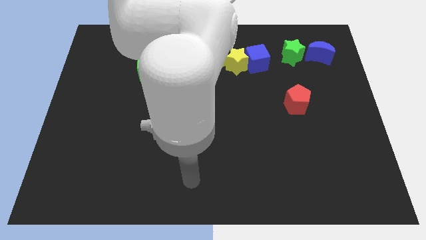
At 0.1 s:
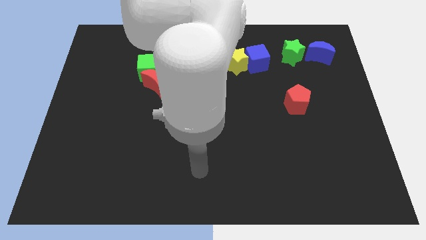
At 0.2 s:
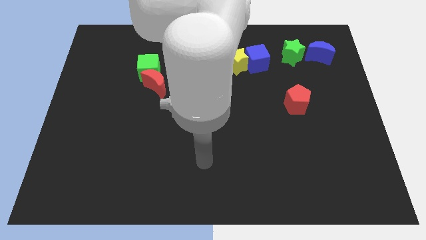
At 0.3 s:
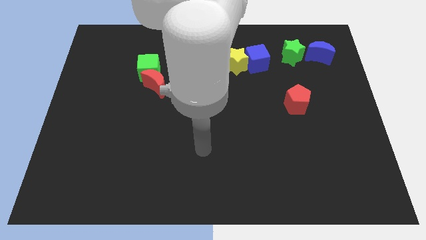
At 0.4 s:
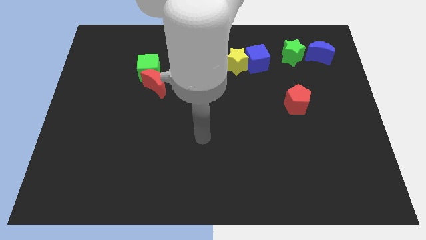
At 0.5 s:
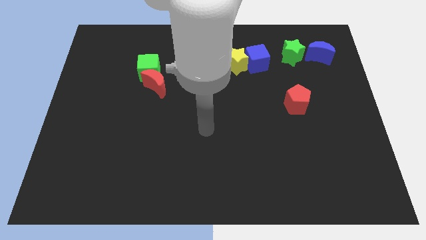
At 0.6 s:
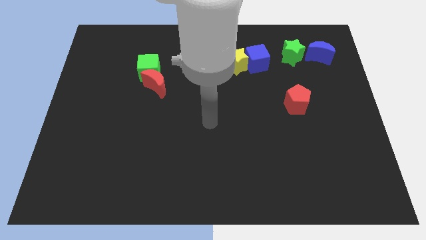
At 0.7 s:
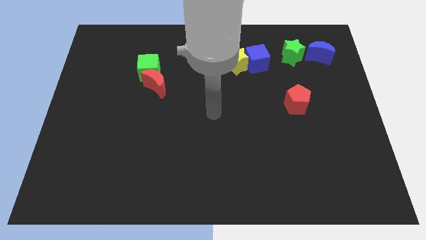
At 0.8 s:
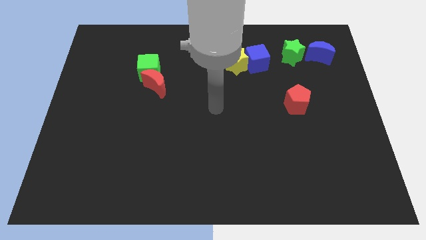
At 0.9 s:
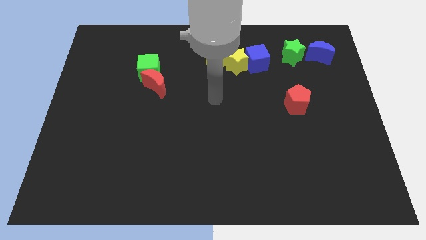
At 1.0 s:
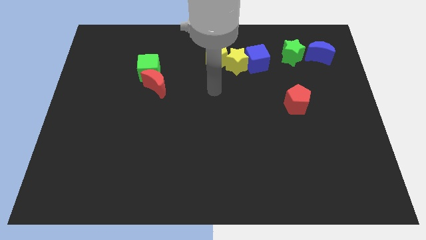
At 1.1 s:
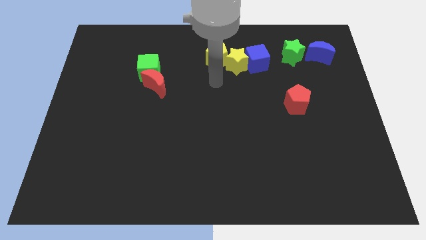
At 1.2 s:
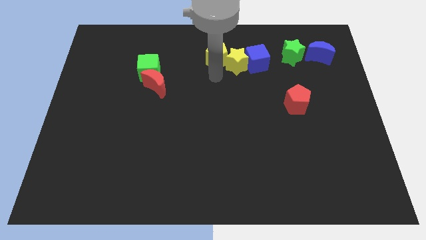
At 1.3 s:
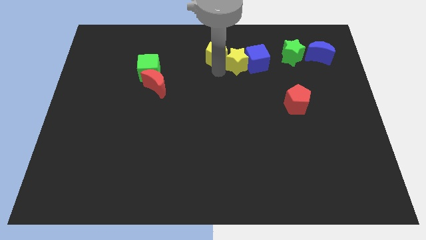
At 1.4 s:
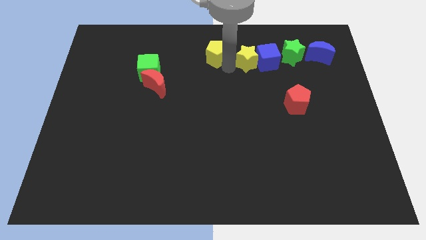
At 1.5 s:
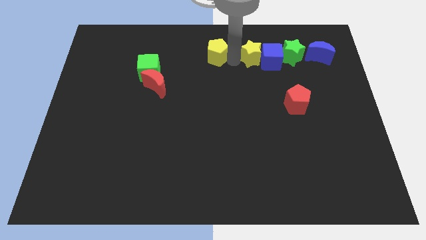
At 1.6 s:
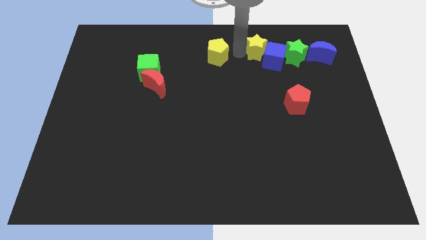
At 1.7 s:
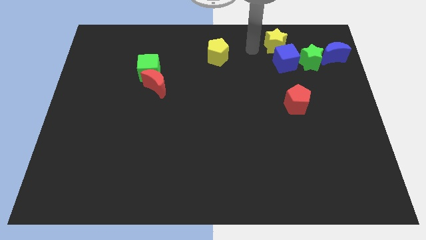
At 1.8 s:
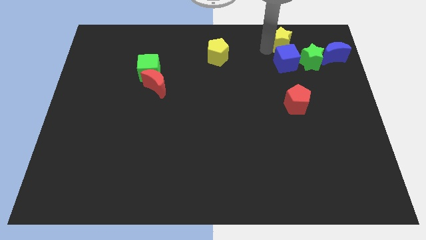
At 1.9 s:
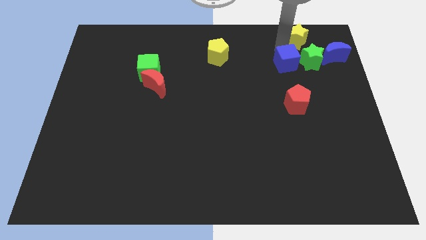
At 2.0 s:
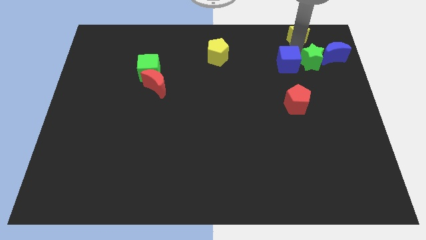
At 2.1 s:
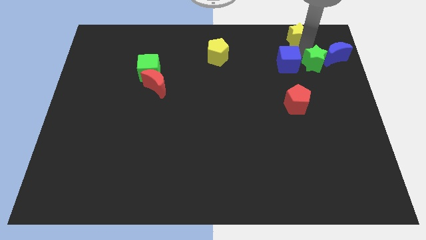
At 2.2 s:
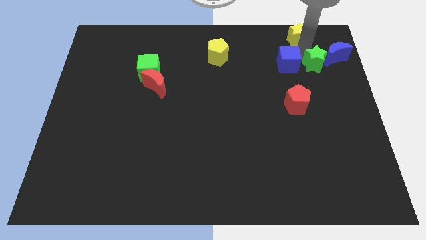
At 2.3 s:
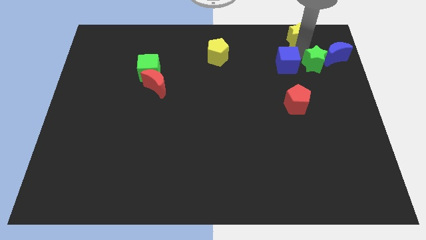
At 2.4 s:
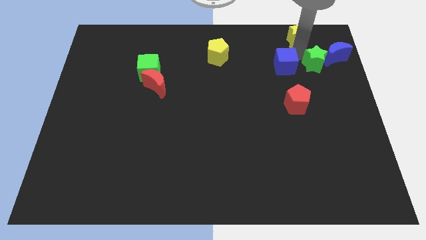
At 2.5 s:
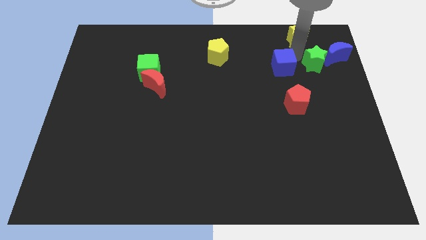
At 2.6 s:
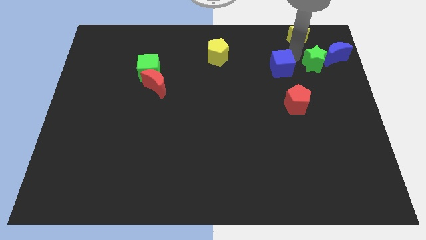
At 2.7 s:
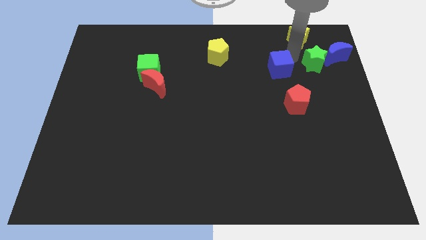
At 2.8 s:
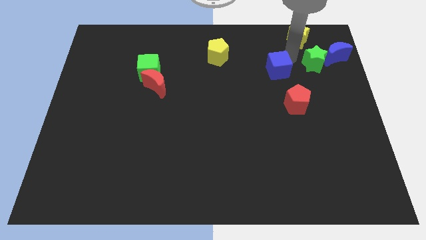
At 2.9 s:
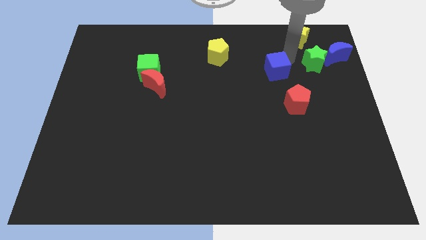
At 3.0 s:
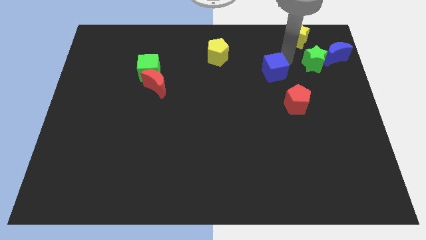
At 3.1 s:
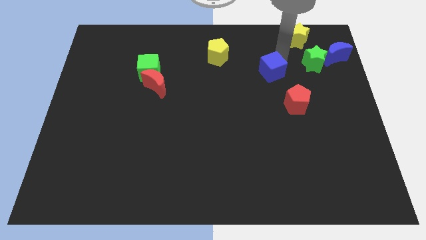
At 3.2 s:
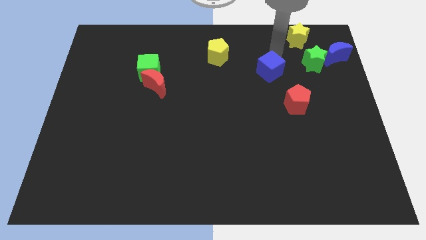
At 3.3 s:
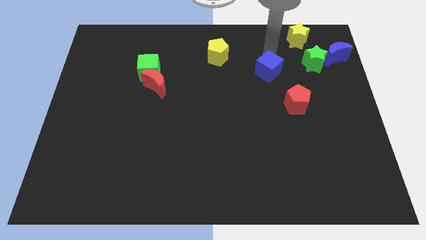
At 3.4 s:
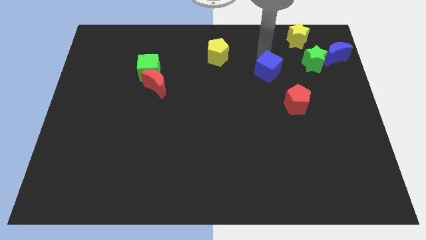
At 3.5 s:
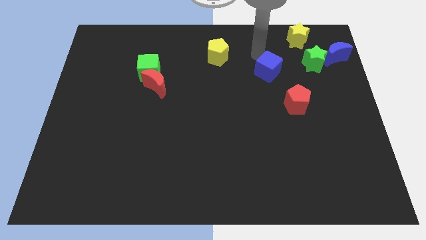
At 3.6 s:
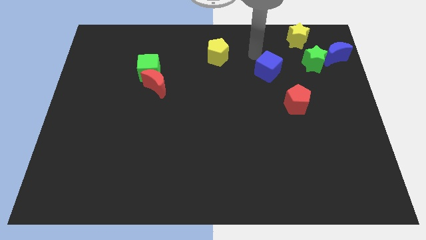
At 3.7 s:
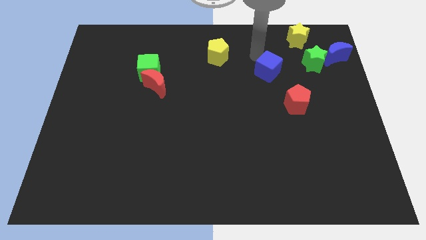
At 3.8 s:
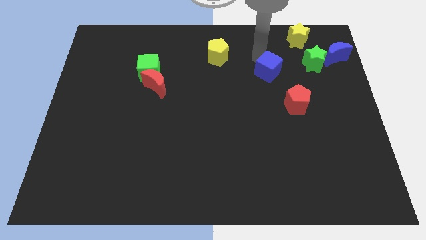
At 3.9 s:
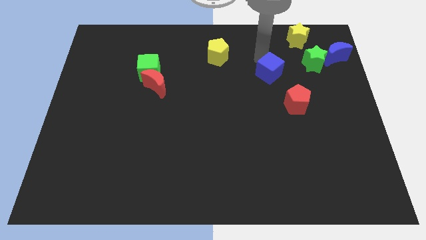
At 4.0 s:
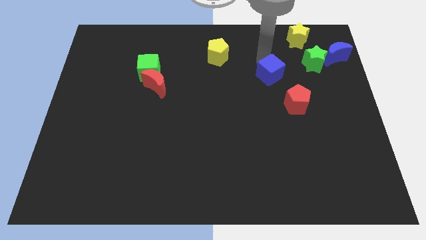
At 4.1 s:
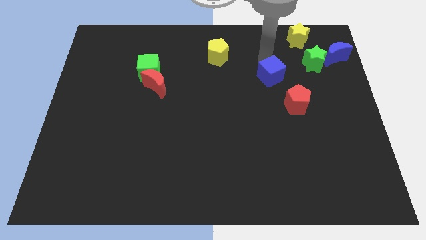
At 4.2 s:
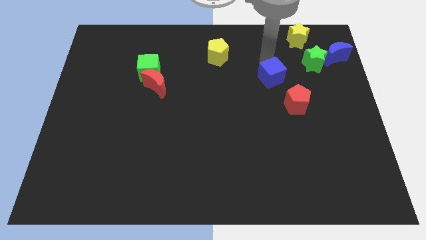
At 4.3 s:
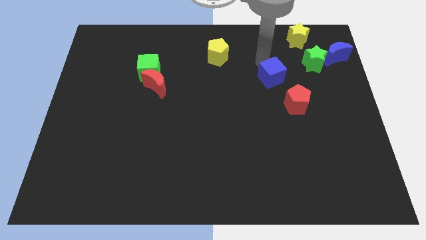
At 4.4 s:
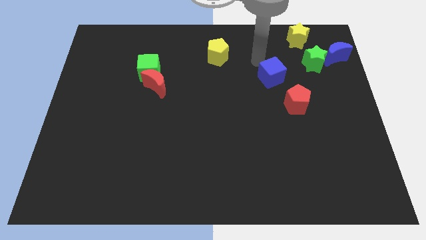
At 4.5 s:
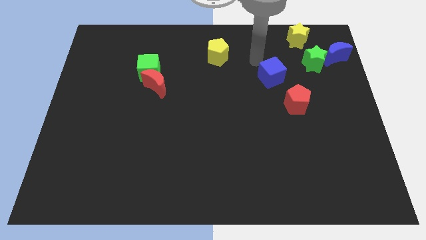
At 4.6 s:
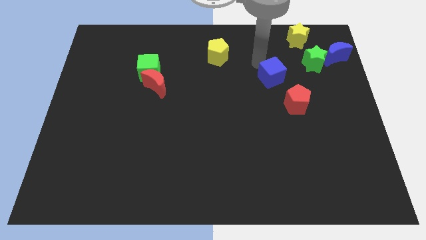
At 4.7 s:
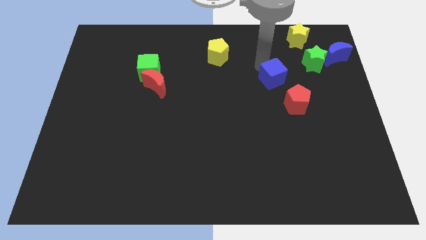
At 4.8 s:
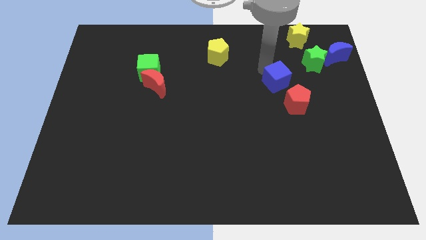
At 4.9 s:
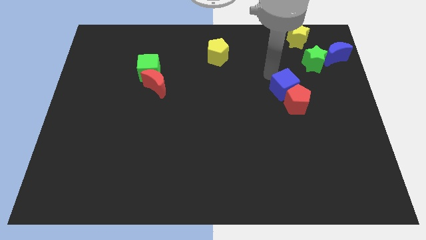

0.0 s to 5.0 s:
put the blue cube next to the red pentagon

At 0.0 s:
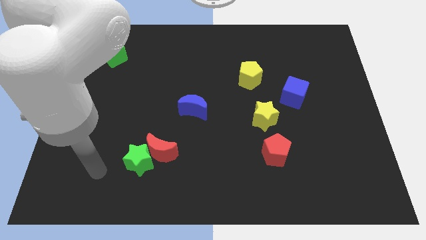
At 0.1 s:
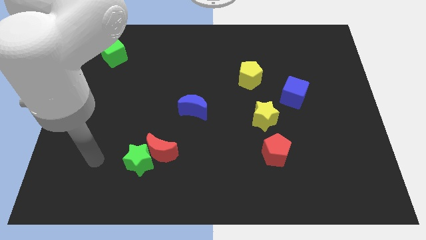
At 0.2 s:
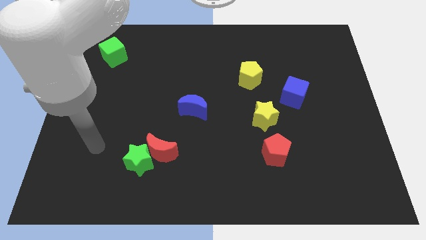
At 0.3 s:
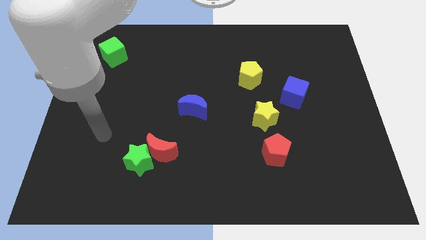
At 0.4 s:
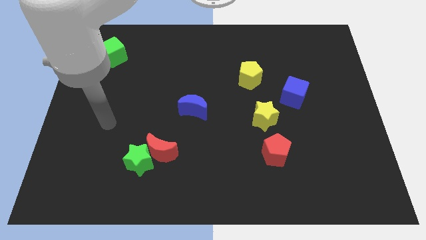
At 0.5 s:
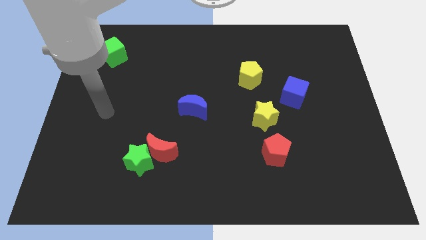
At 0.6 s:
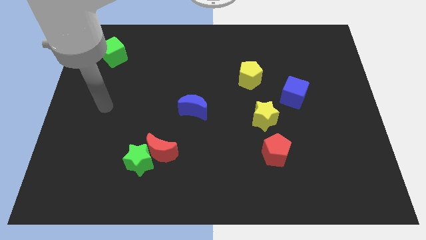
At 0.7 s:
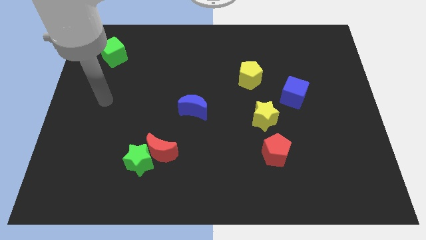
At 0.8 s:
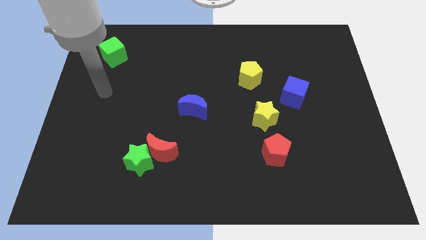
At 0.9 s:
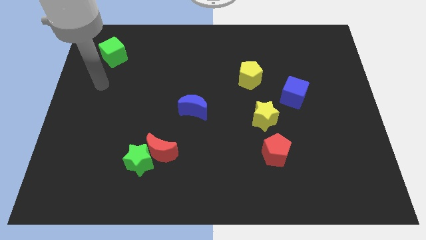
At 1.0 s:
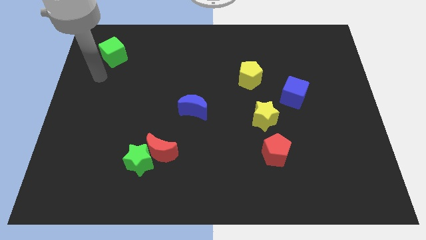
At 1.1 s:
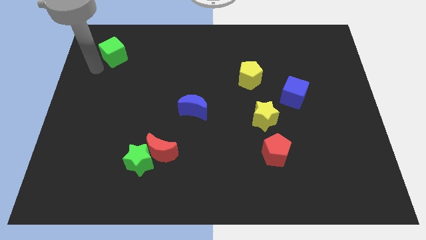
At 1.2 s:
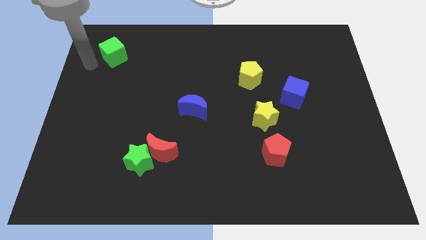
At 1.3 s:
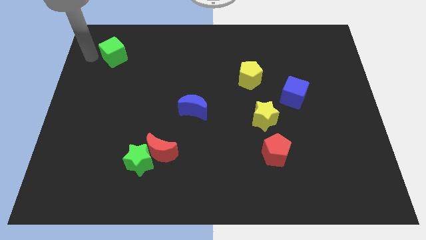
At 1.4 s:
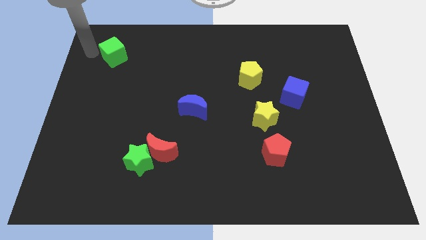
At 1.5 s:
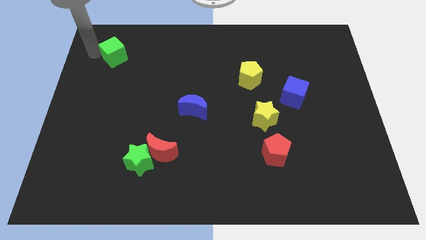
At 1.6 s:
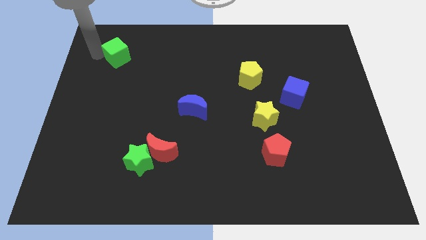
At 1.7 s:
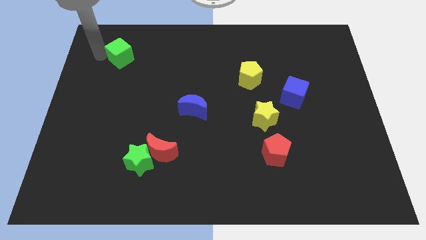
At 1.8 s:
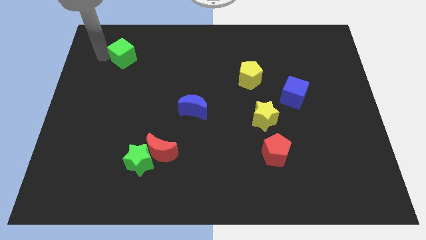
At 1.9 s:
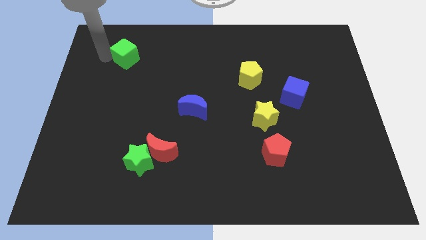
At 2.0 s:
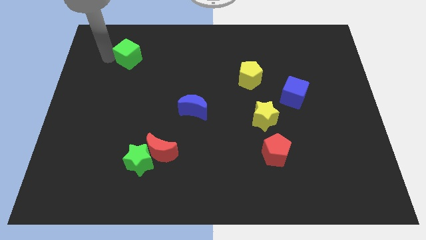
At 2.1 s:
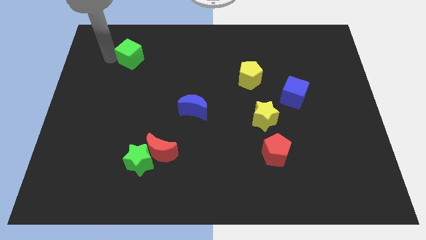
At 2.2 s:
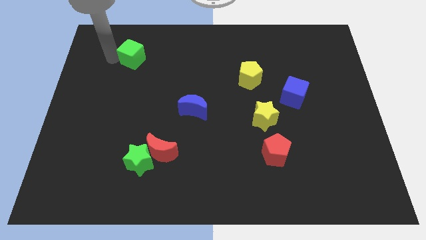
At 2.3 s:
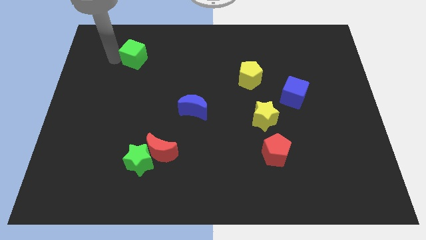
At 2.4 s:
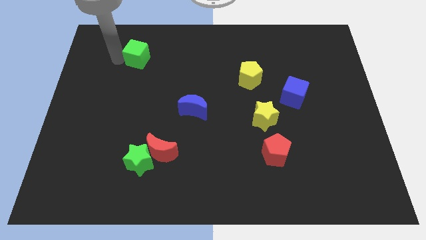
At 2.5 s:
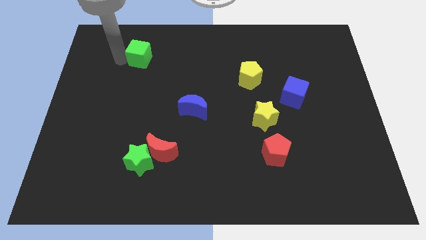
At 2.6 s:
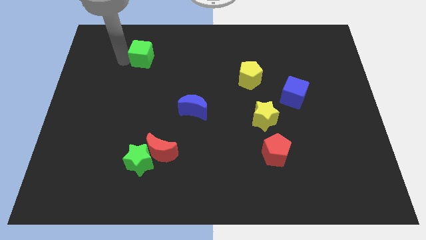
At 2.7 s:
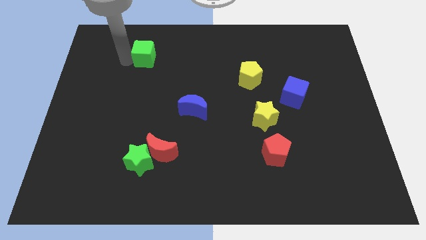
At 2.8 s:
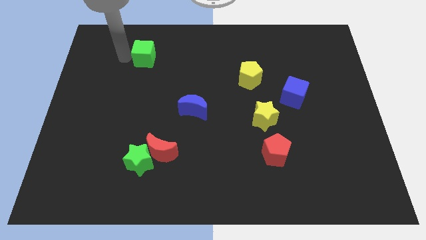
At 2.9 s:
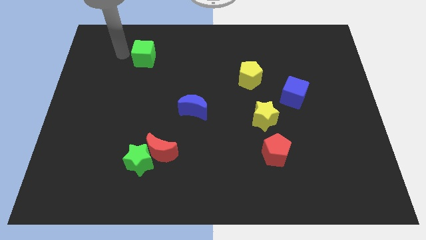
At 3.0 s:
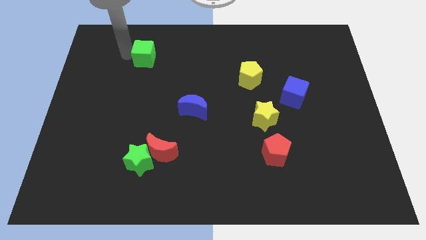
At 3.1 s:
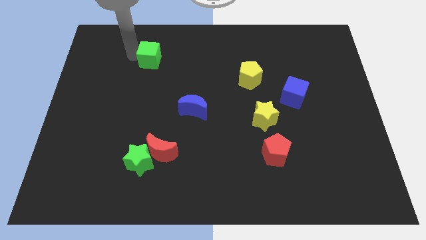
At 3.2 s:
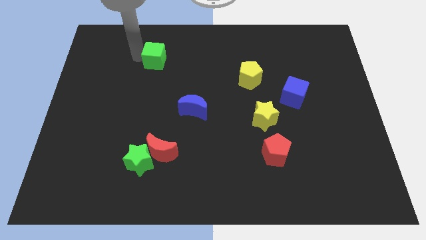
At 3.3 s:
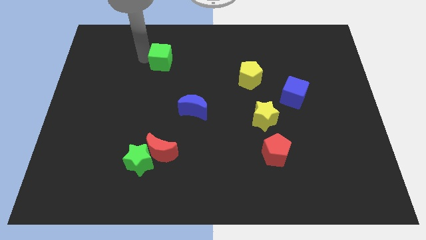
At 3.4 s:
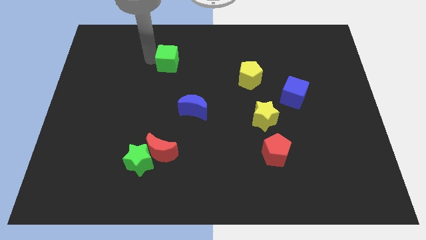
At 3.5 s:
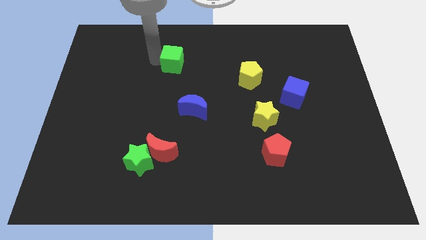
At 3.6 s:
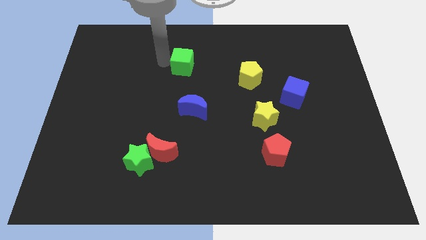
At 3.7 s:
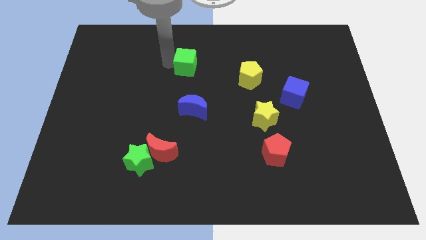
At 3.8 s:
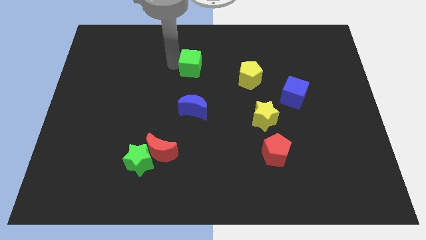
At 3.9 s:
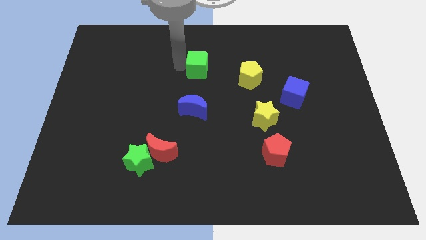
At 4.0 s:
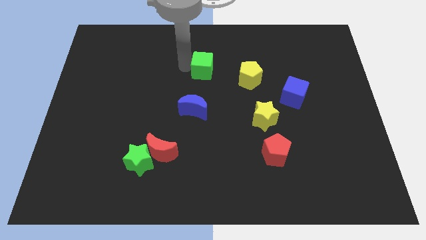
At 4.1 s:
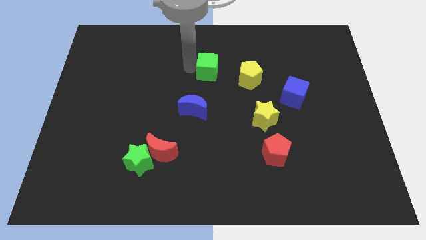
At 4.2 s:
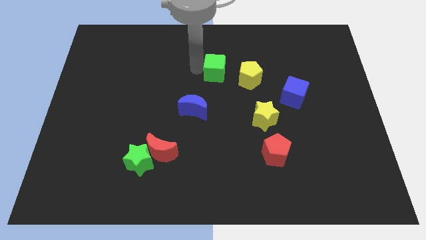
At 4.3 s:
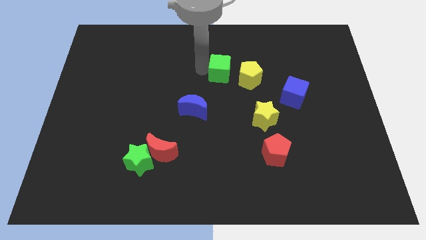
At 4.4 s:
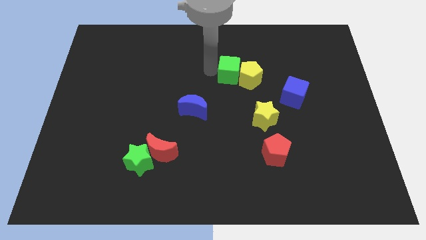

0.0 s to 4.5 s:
push the green cube towards the yellow pentagon
